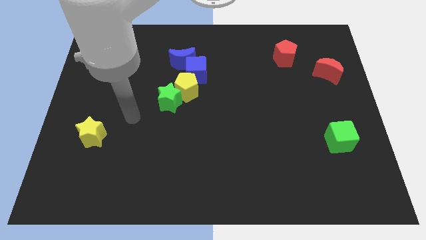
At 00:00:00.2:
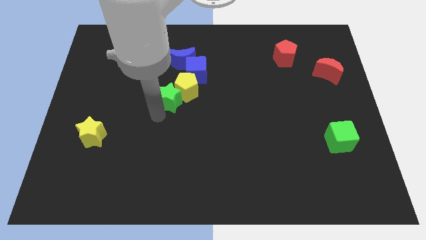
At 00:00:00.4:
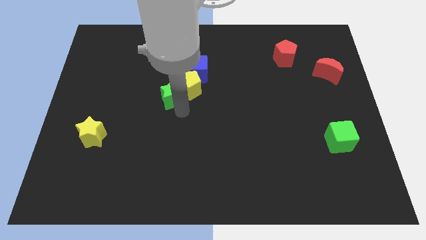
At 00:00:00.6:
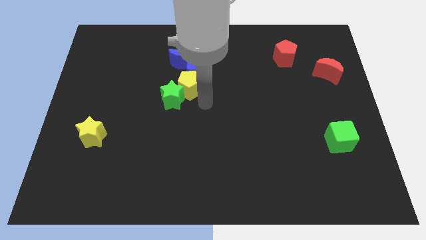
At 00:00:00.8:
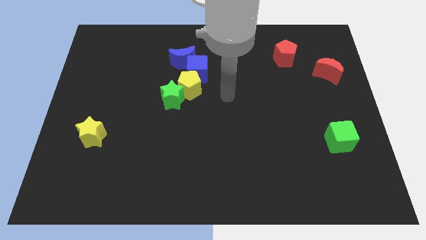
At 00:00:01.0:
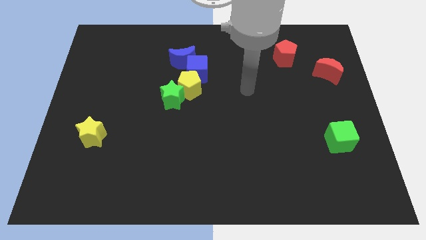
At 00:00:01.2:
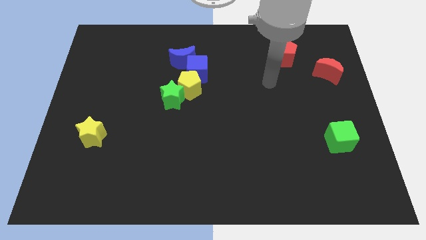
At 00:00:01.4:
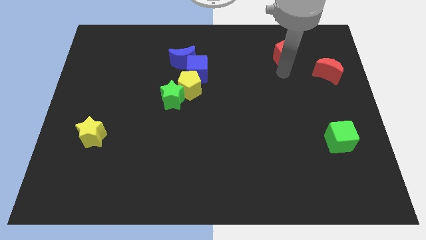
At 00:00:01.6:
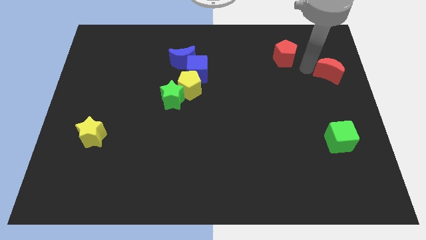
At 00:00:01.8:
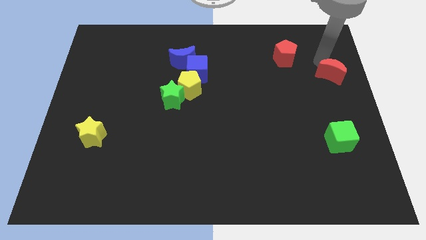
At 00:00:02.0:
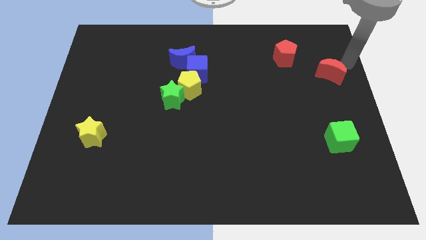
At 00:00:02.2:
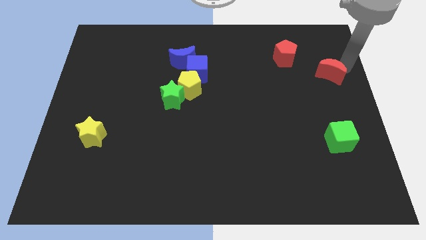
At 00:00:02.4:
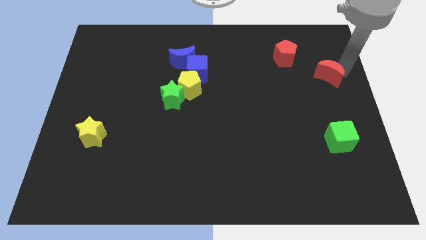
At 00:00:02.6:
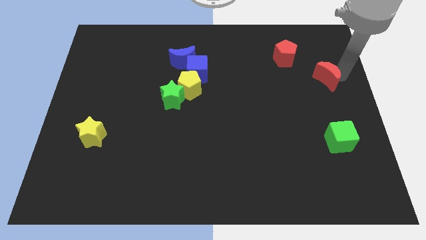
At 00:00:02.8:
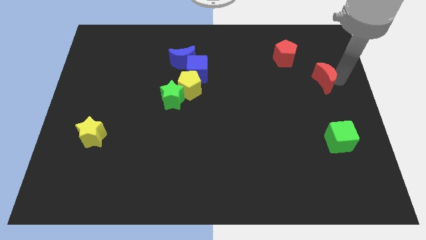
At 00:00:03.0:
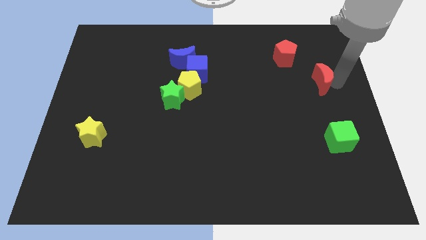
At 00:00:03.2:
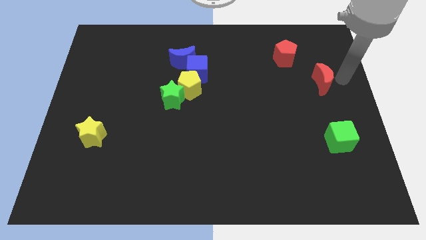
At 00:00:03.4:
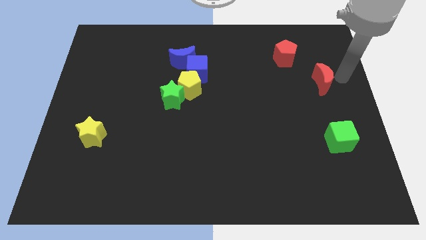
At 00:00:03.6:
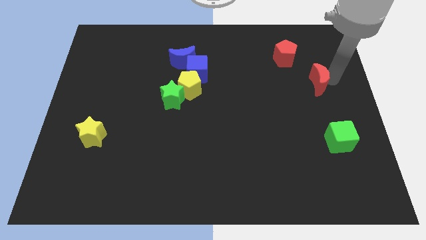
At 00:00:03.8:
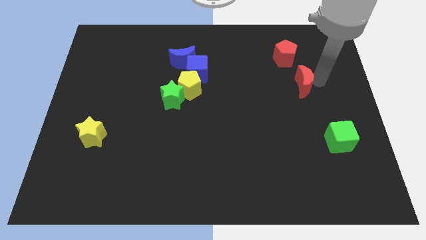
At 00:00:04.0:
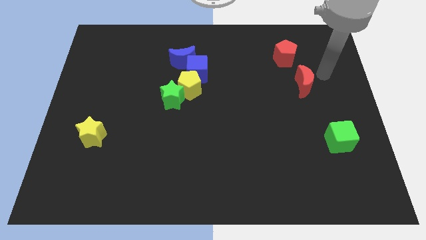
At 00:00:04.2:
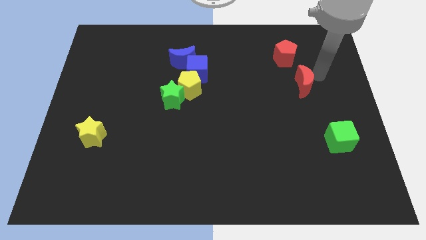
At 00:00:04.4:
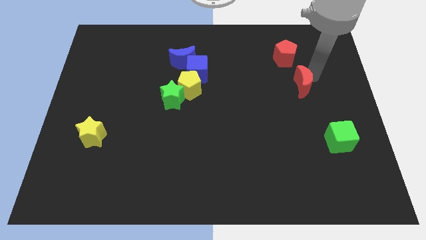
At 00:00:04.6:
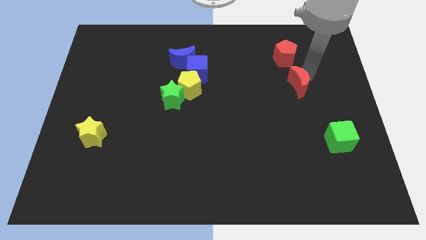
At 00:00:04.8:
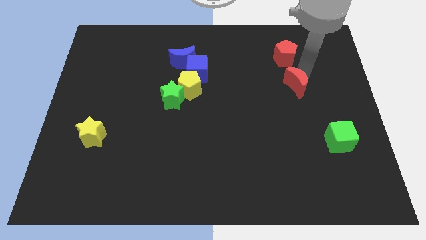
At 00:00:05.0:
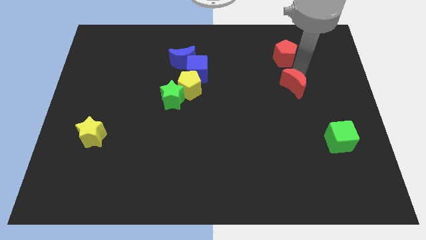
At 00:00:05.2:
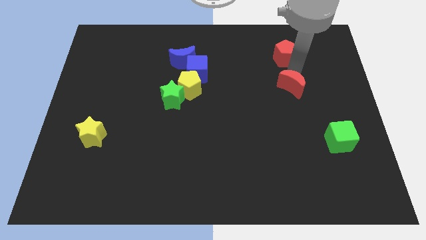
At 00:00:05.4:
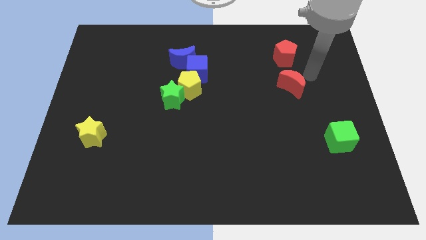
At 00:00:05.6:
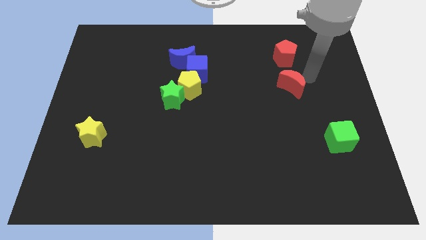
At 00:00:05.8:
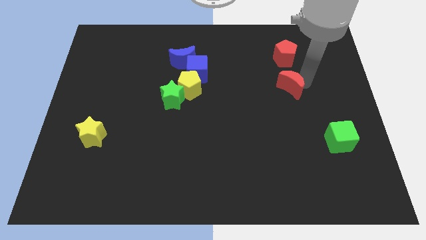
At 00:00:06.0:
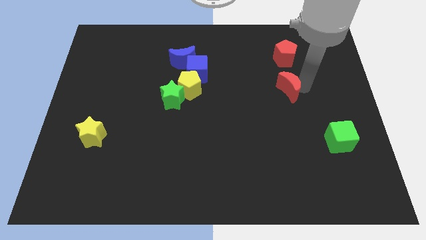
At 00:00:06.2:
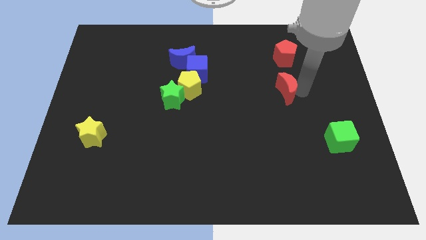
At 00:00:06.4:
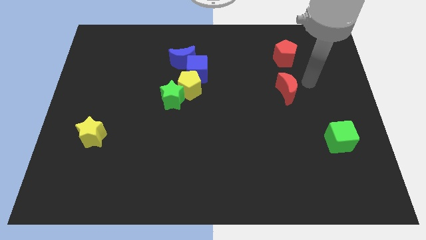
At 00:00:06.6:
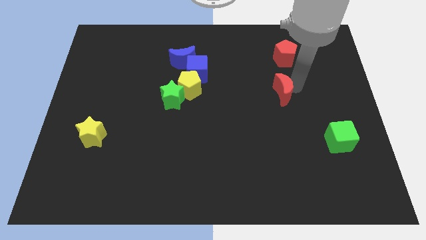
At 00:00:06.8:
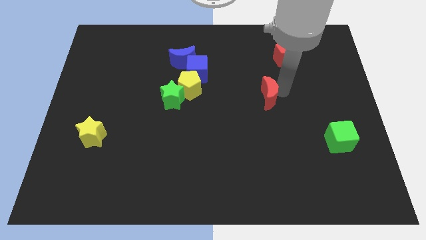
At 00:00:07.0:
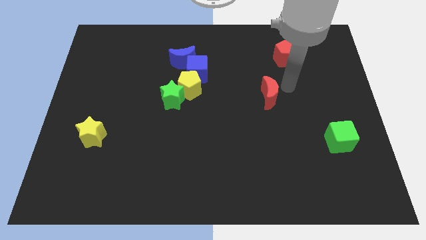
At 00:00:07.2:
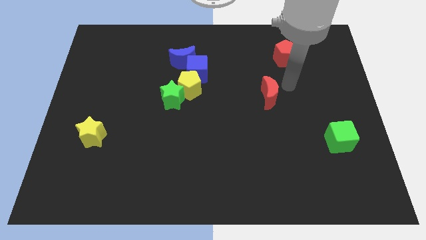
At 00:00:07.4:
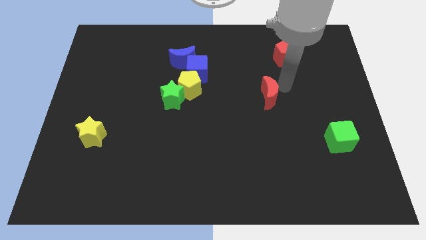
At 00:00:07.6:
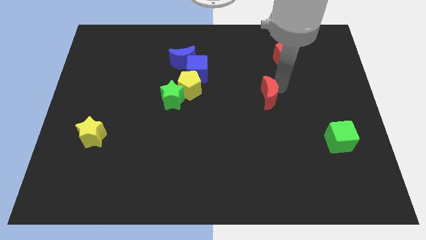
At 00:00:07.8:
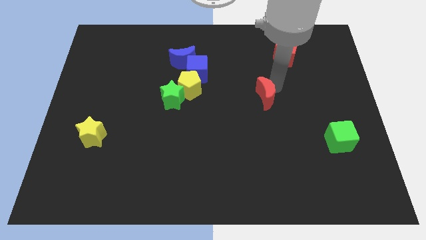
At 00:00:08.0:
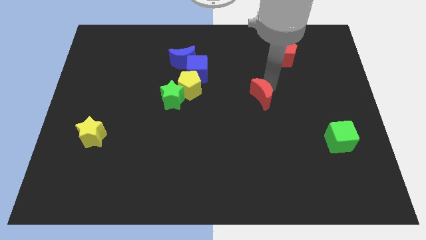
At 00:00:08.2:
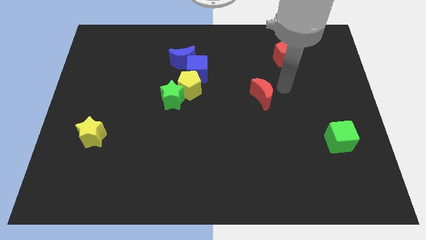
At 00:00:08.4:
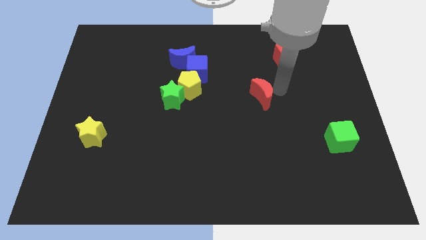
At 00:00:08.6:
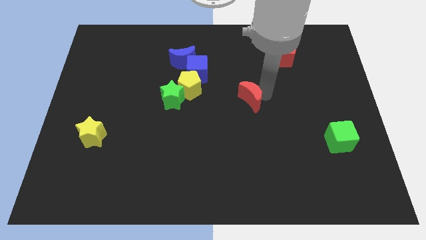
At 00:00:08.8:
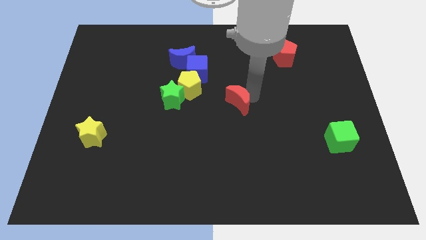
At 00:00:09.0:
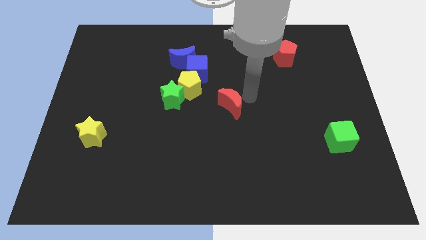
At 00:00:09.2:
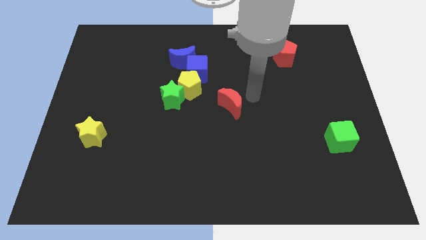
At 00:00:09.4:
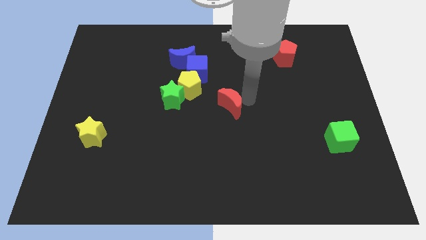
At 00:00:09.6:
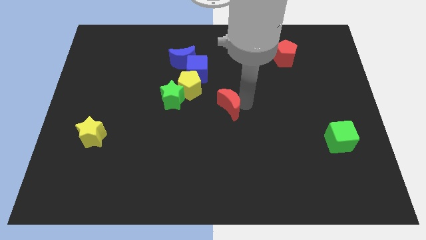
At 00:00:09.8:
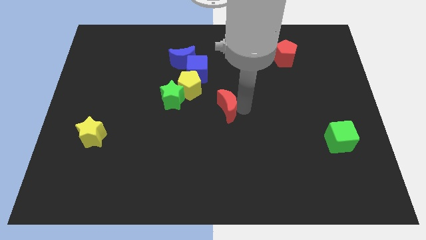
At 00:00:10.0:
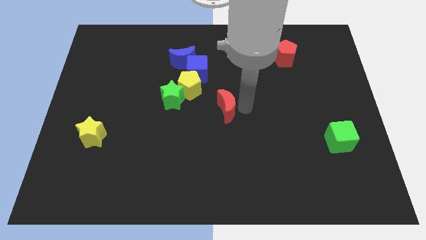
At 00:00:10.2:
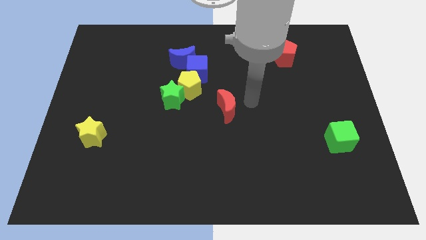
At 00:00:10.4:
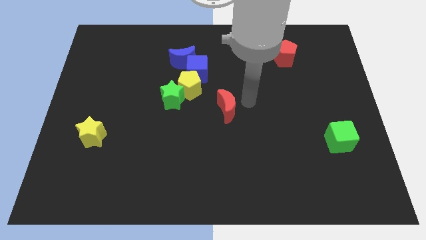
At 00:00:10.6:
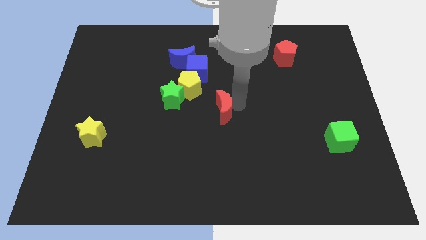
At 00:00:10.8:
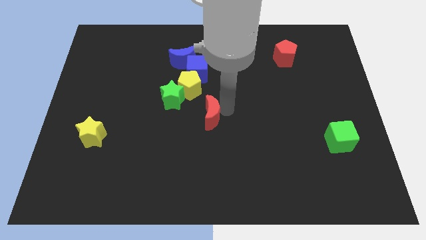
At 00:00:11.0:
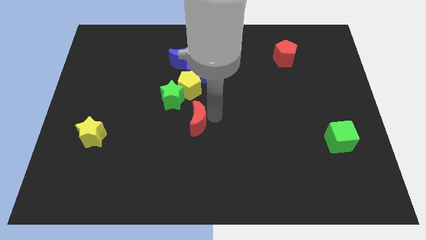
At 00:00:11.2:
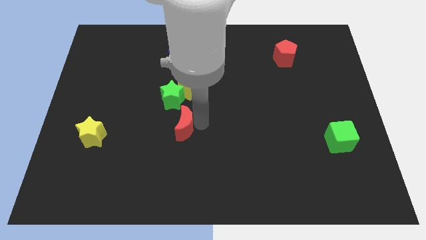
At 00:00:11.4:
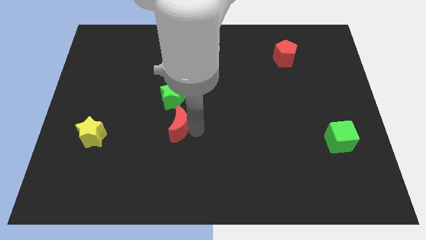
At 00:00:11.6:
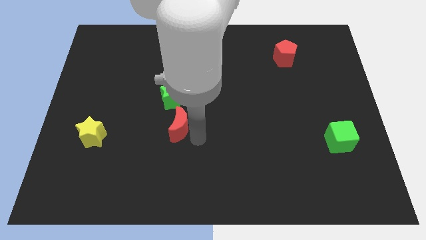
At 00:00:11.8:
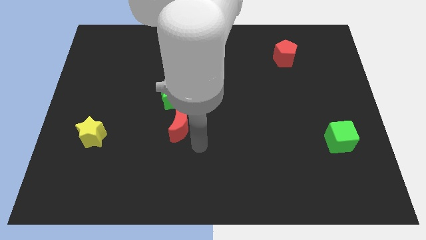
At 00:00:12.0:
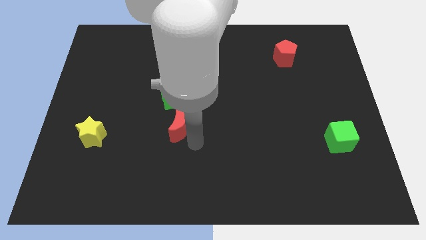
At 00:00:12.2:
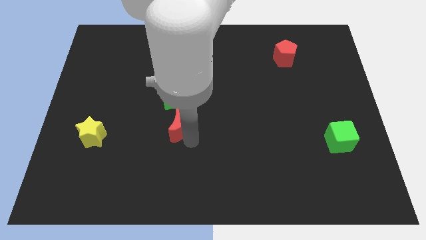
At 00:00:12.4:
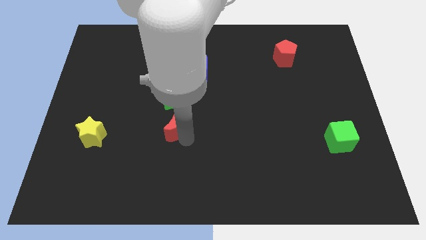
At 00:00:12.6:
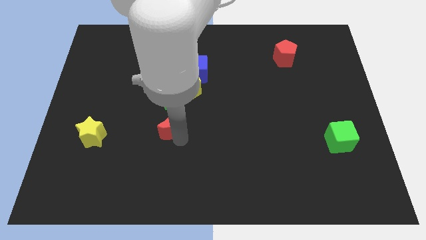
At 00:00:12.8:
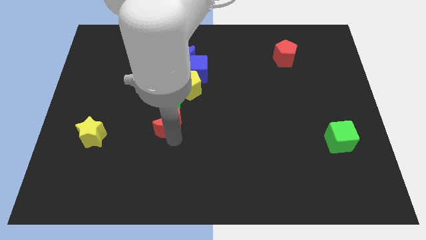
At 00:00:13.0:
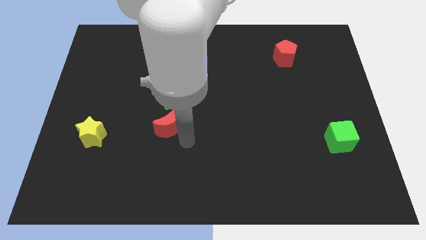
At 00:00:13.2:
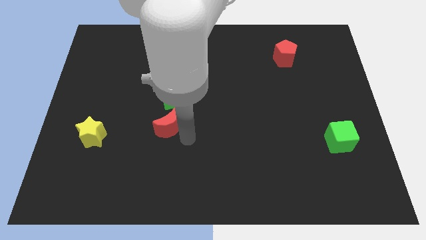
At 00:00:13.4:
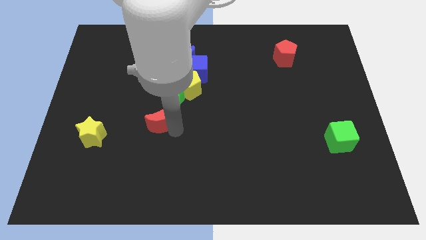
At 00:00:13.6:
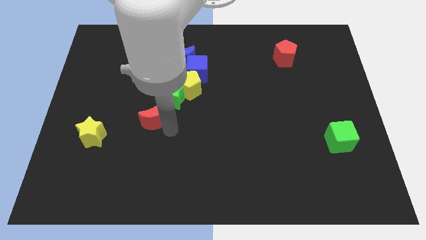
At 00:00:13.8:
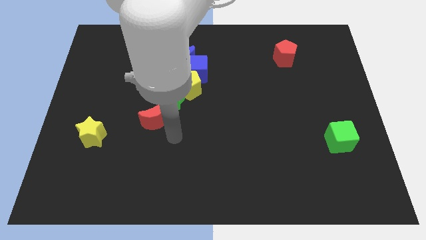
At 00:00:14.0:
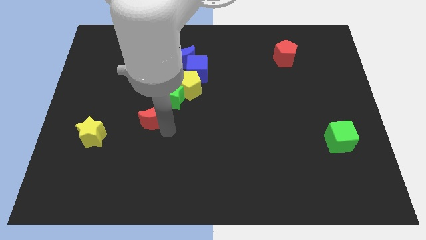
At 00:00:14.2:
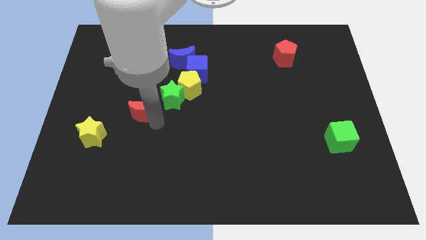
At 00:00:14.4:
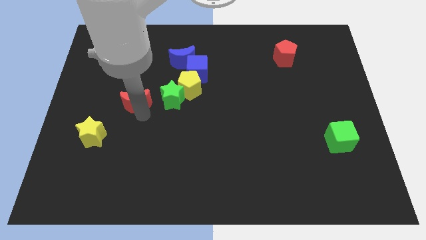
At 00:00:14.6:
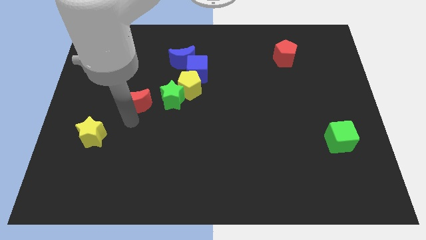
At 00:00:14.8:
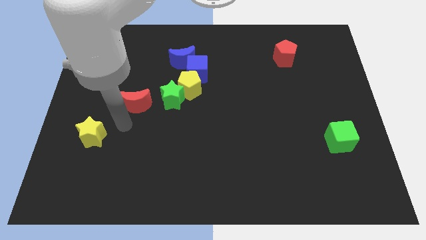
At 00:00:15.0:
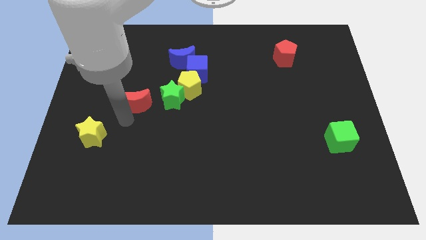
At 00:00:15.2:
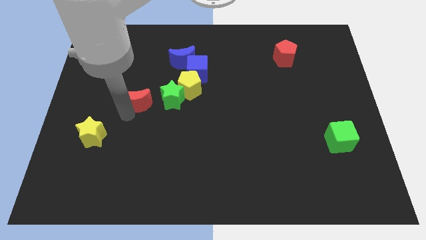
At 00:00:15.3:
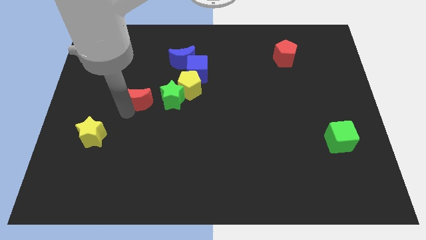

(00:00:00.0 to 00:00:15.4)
put the red moon just left of the yellow pentagon
